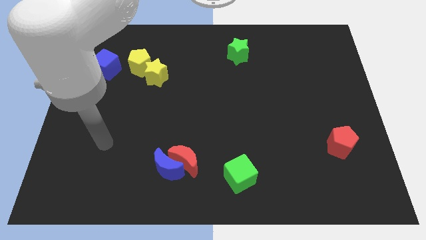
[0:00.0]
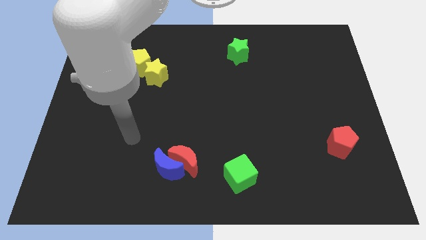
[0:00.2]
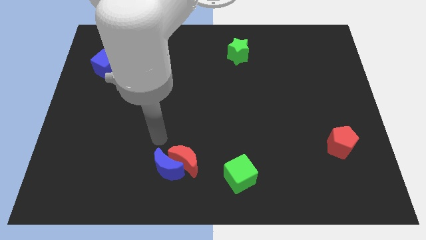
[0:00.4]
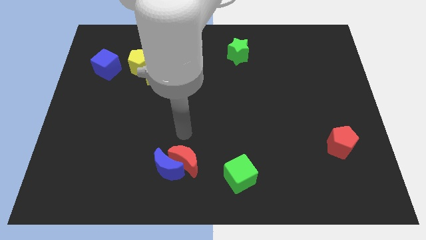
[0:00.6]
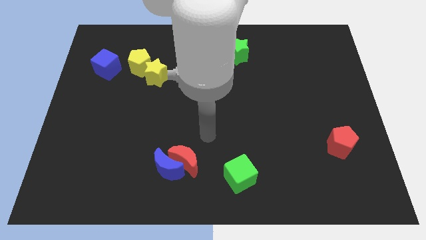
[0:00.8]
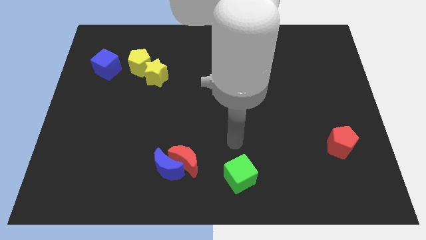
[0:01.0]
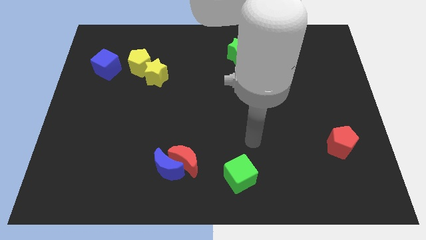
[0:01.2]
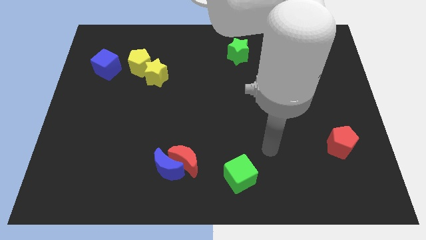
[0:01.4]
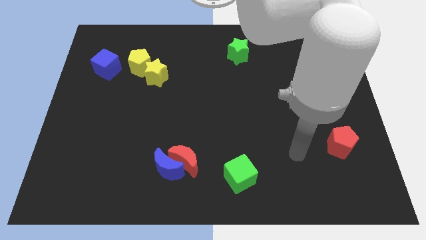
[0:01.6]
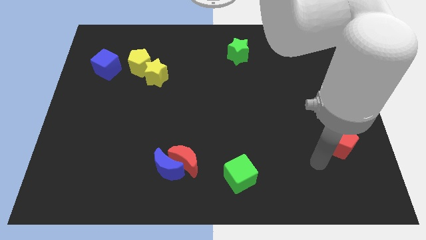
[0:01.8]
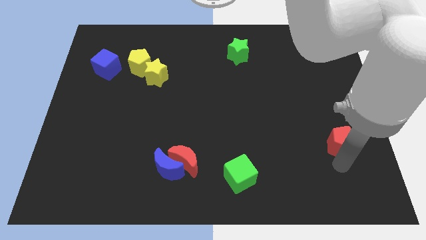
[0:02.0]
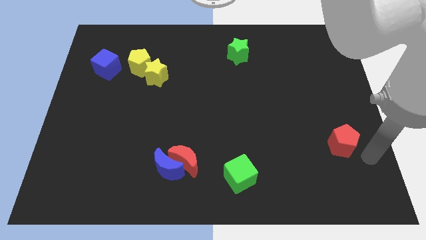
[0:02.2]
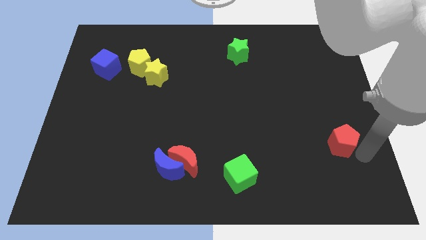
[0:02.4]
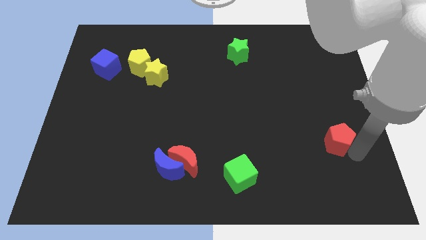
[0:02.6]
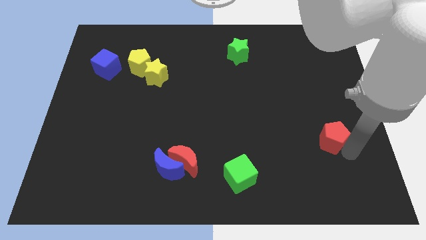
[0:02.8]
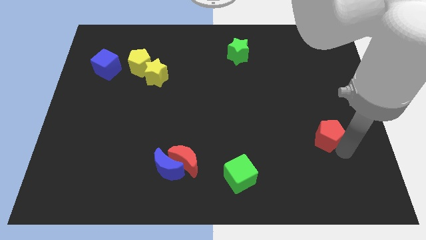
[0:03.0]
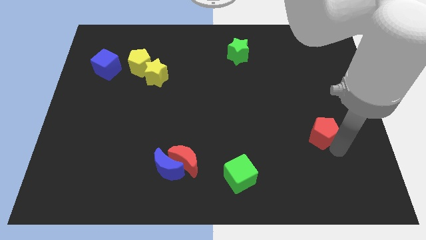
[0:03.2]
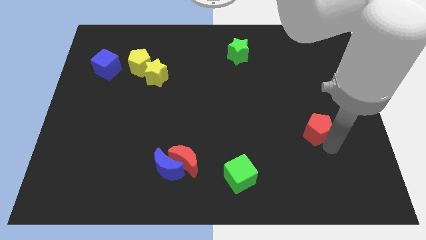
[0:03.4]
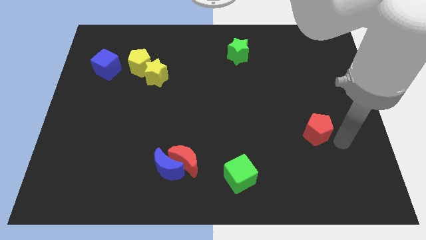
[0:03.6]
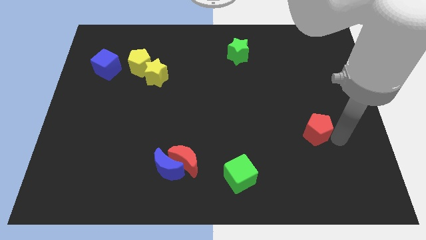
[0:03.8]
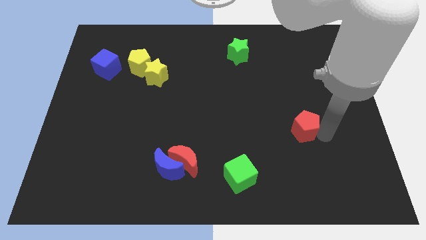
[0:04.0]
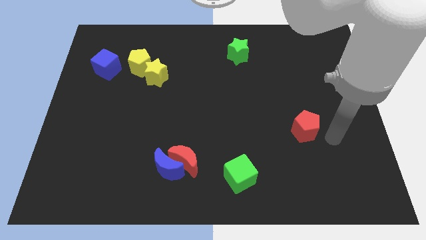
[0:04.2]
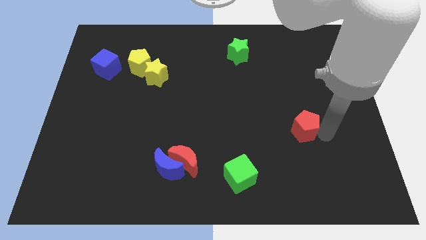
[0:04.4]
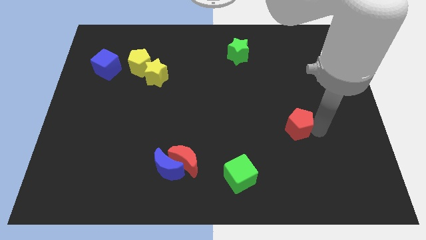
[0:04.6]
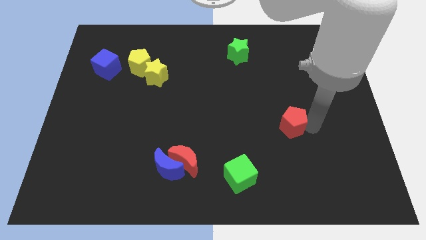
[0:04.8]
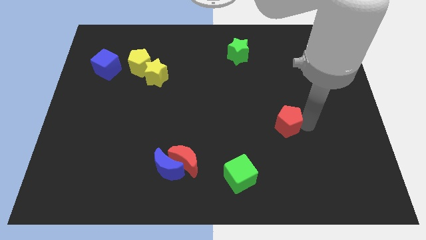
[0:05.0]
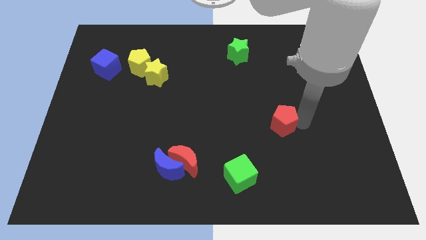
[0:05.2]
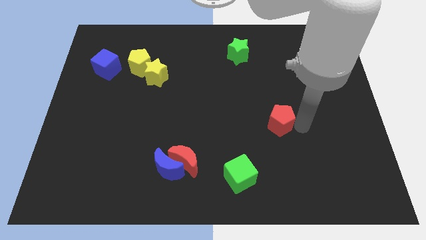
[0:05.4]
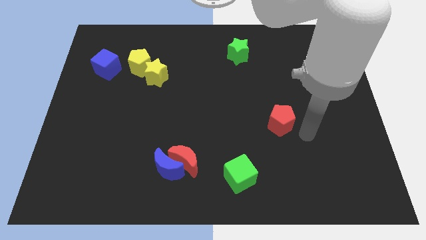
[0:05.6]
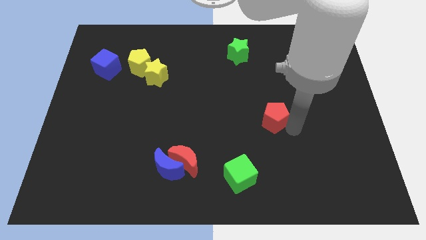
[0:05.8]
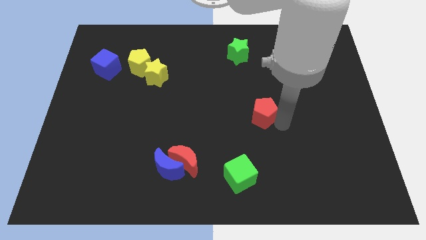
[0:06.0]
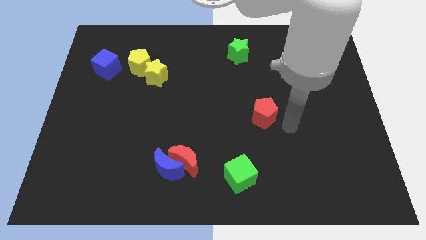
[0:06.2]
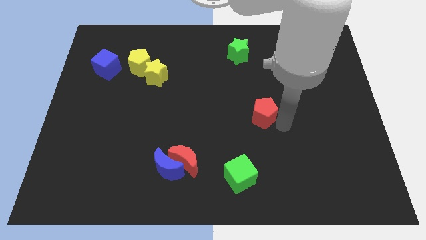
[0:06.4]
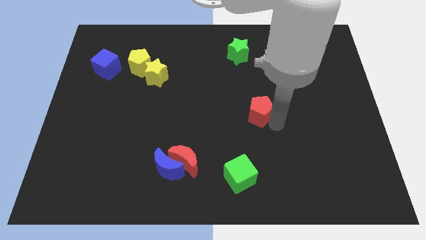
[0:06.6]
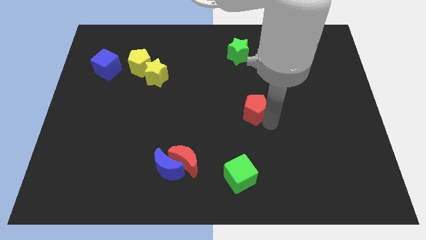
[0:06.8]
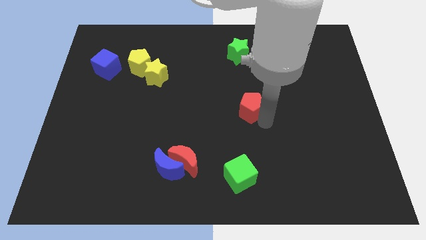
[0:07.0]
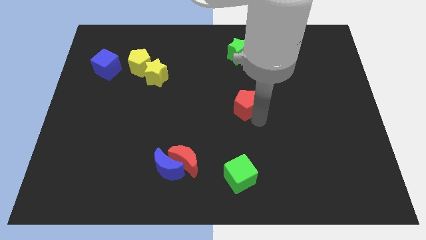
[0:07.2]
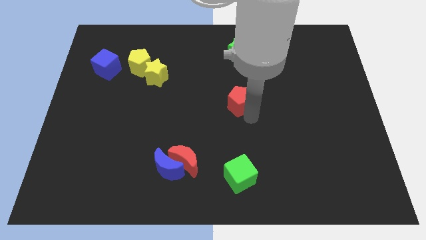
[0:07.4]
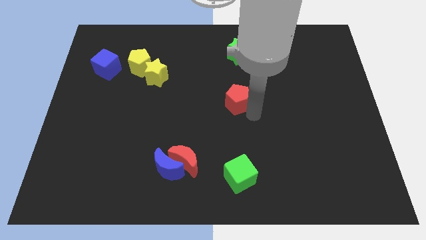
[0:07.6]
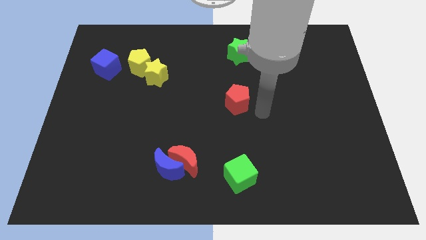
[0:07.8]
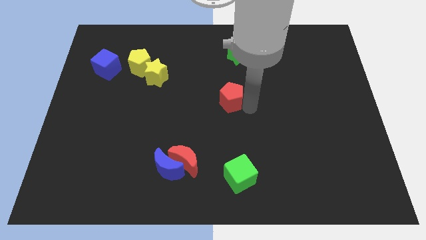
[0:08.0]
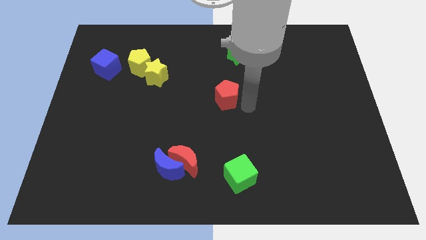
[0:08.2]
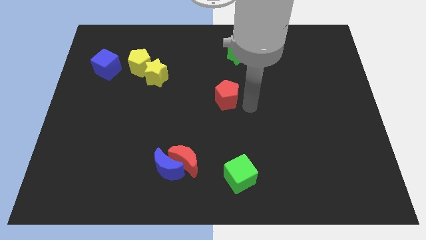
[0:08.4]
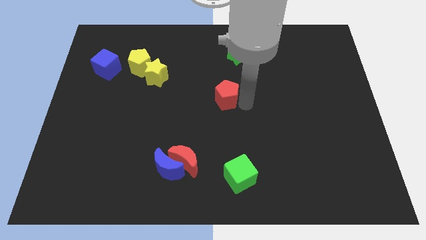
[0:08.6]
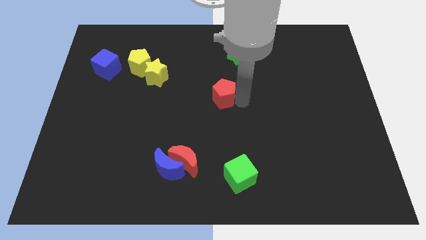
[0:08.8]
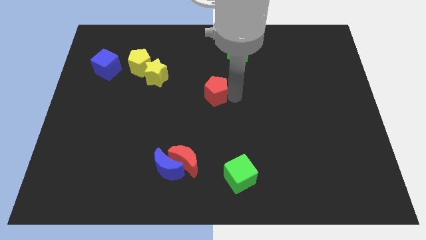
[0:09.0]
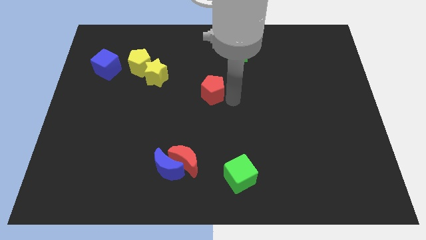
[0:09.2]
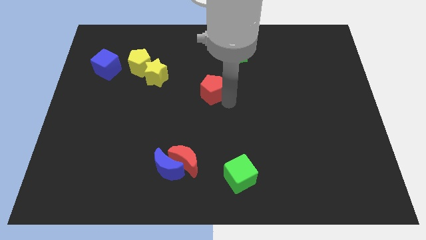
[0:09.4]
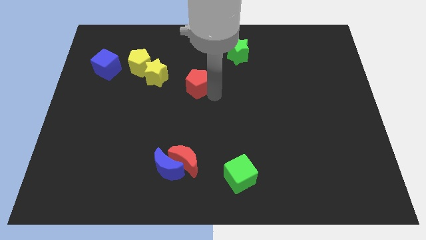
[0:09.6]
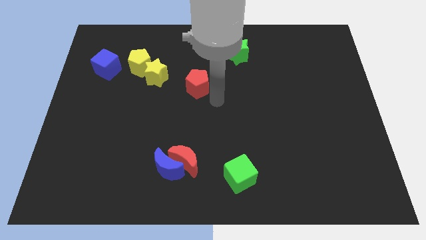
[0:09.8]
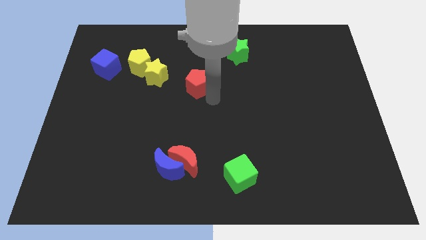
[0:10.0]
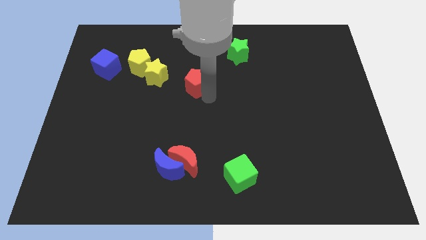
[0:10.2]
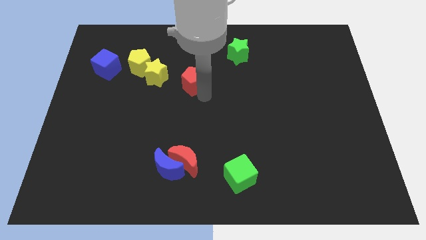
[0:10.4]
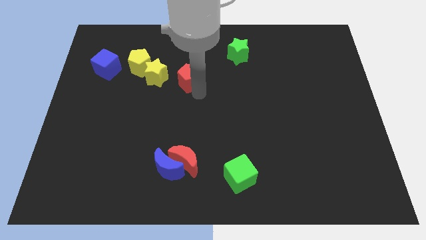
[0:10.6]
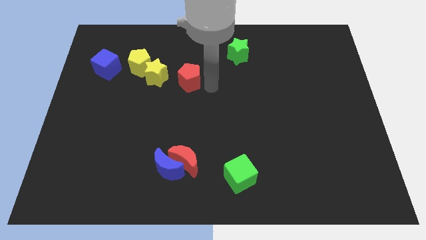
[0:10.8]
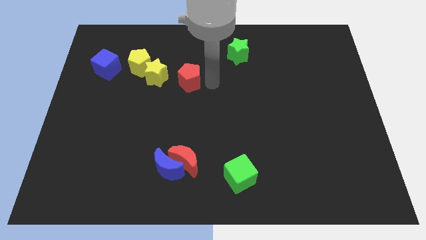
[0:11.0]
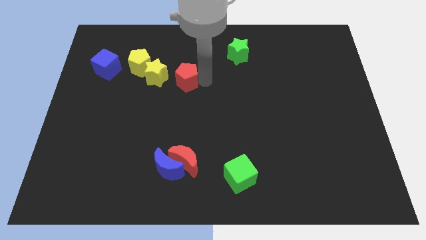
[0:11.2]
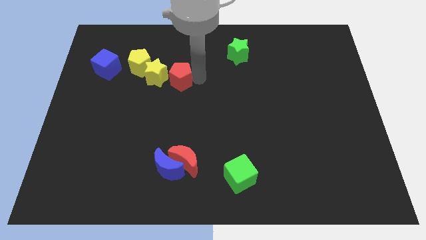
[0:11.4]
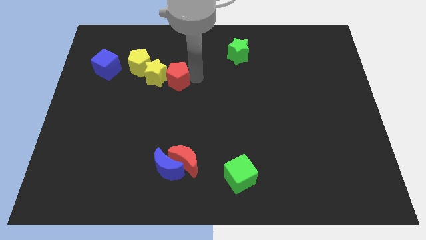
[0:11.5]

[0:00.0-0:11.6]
slide the red pentagon next to the yellow star

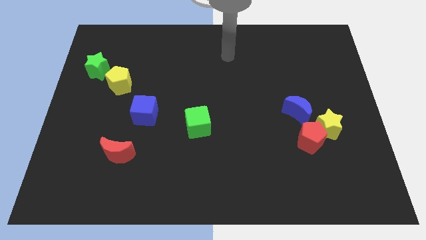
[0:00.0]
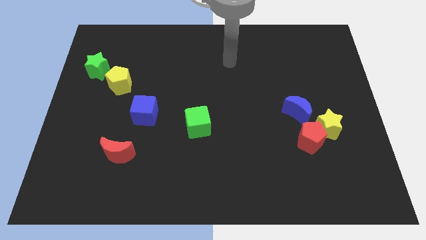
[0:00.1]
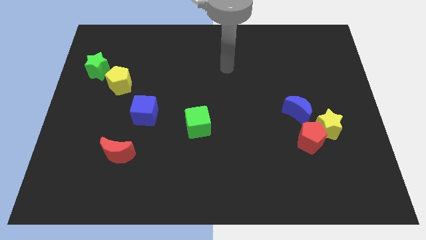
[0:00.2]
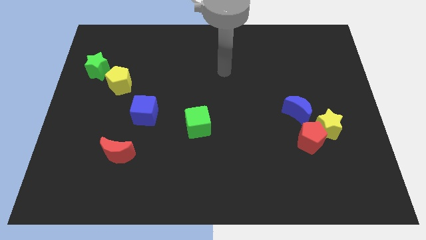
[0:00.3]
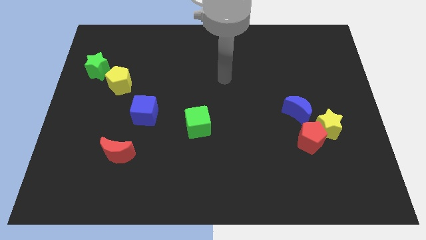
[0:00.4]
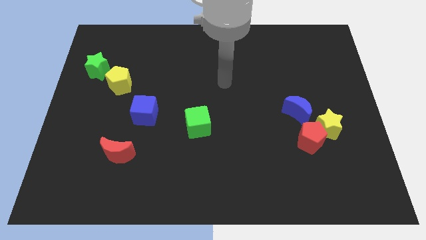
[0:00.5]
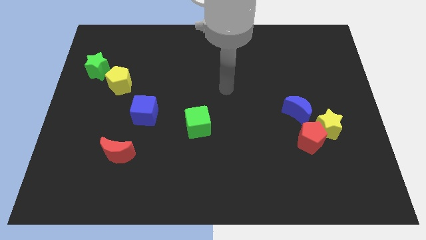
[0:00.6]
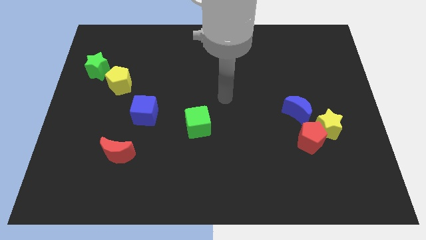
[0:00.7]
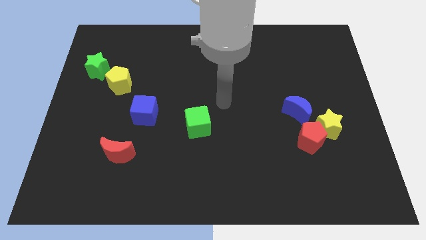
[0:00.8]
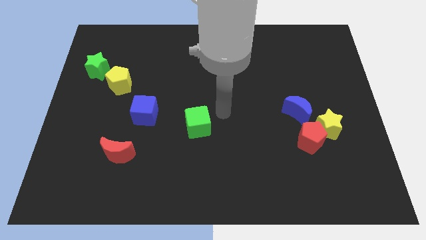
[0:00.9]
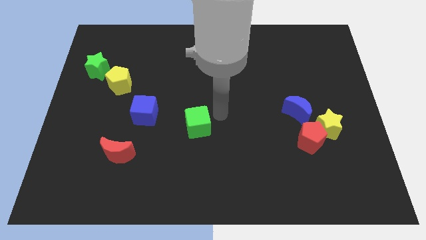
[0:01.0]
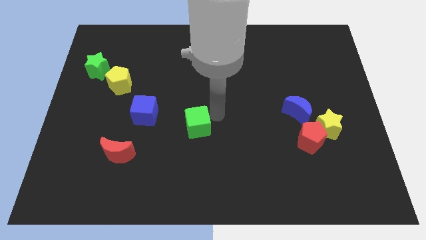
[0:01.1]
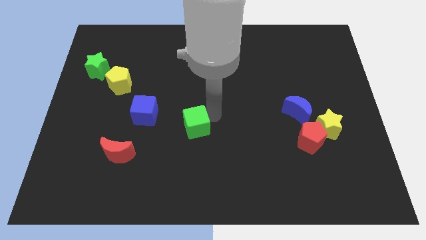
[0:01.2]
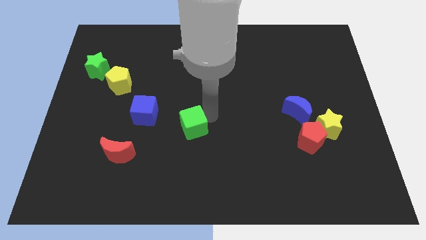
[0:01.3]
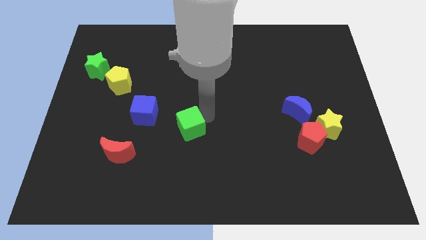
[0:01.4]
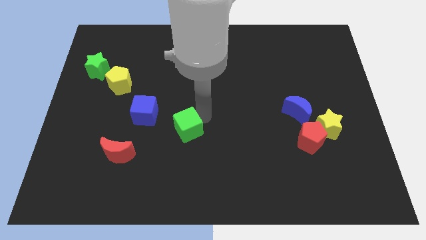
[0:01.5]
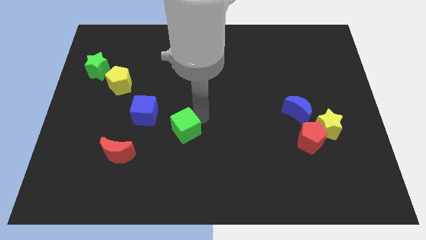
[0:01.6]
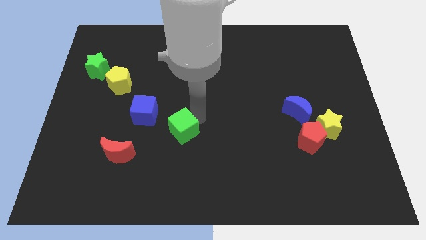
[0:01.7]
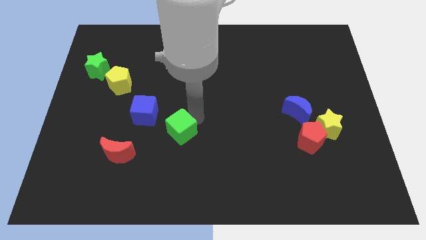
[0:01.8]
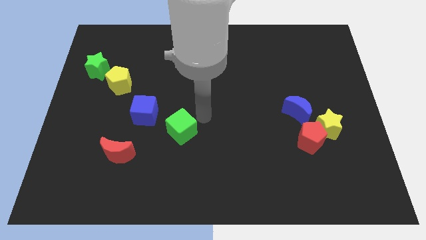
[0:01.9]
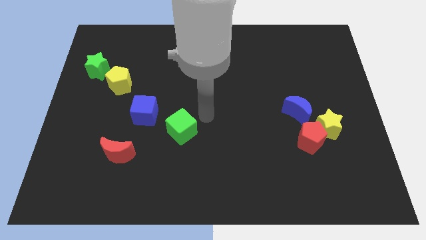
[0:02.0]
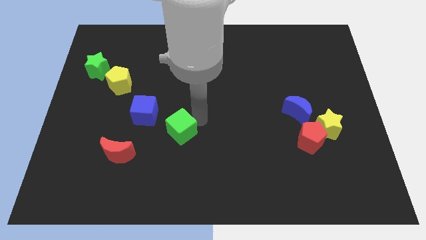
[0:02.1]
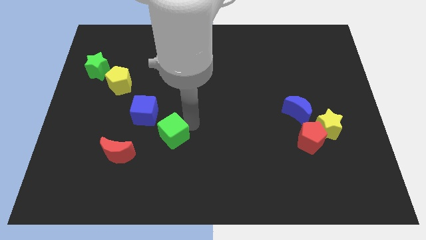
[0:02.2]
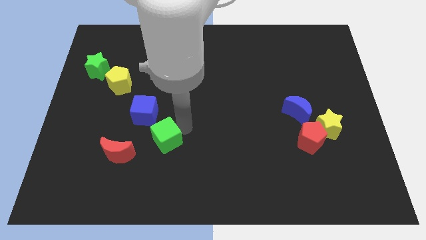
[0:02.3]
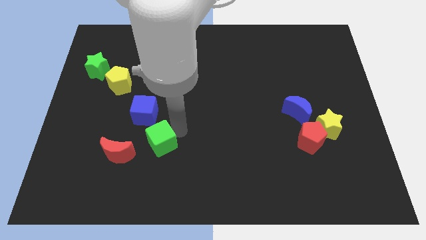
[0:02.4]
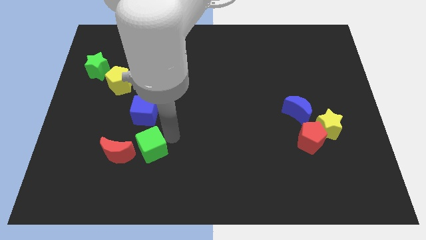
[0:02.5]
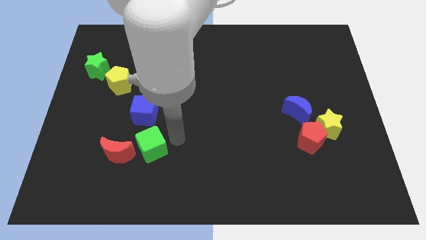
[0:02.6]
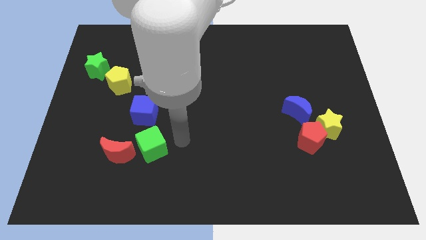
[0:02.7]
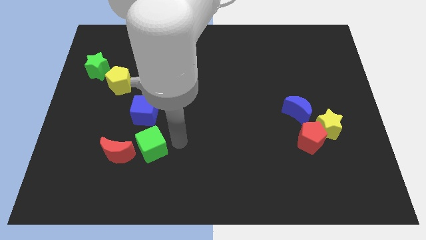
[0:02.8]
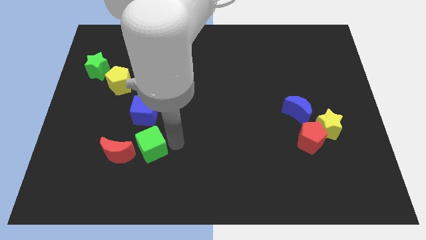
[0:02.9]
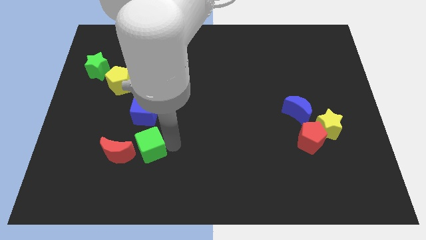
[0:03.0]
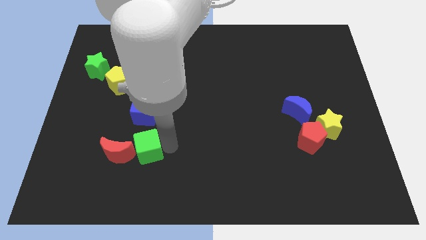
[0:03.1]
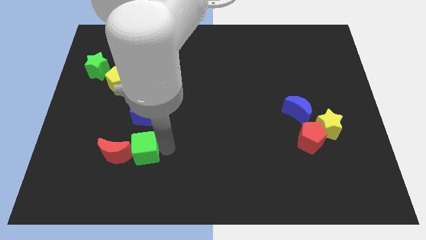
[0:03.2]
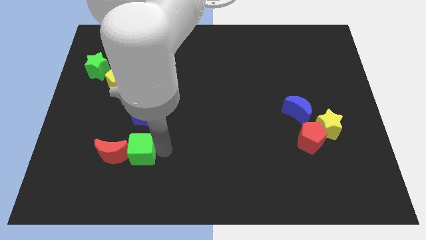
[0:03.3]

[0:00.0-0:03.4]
put the green cube close to the red moon
